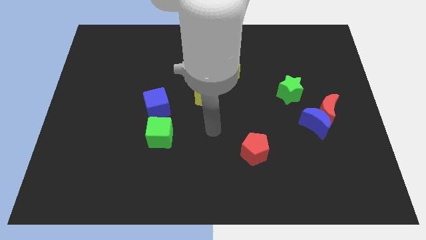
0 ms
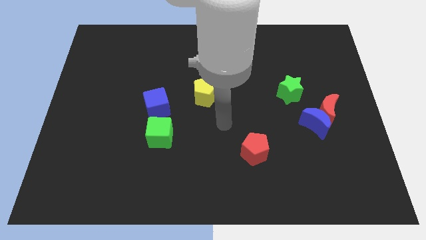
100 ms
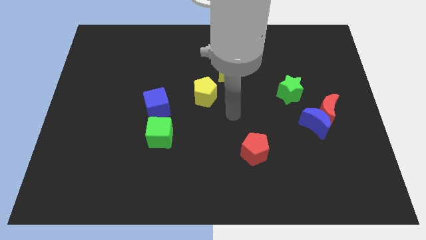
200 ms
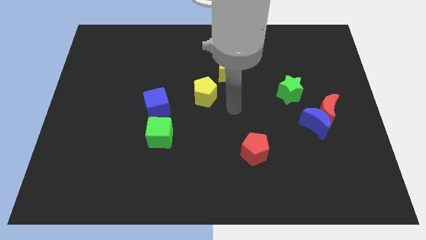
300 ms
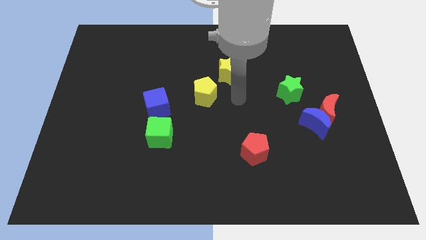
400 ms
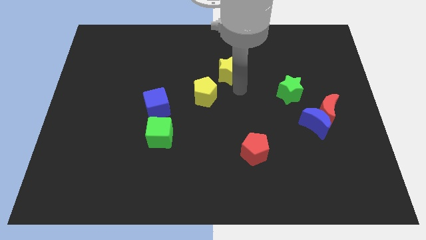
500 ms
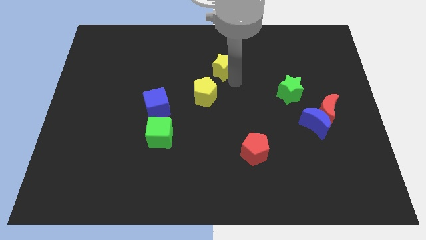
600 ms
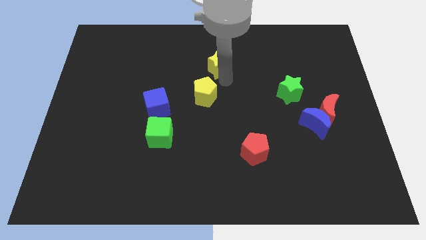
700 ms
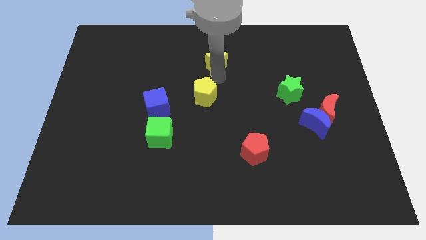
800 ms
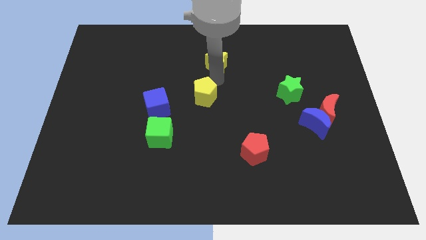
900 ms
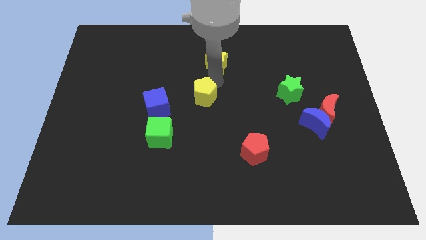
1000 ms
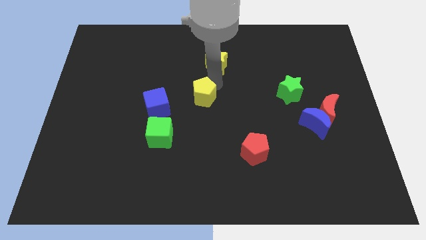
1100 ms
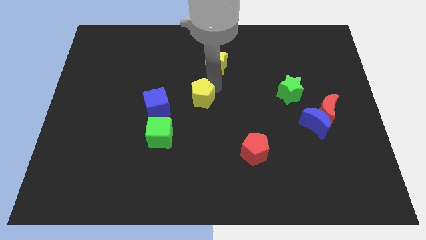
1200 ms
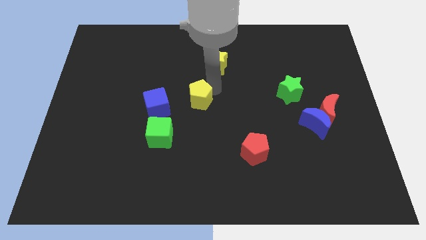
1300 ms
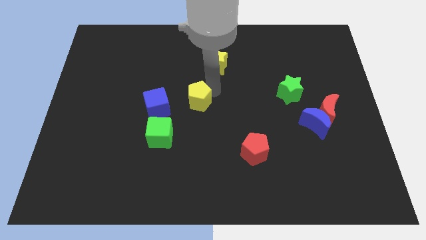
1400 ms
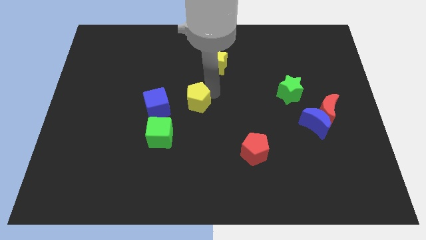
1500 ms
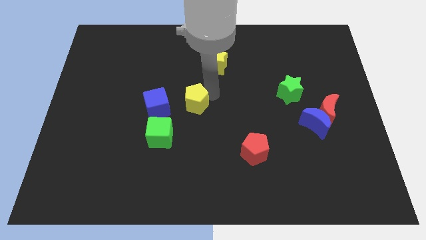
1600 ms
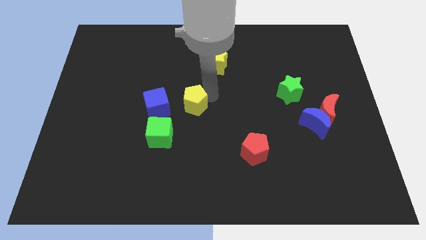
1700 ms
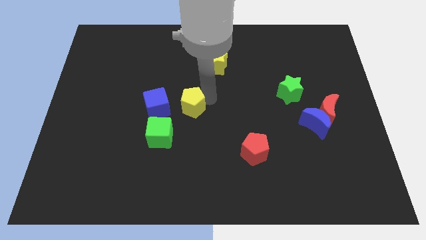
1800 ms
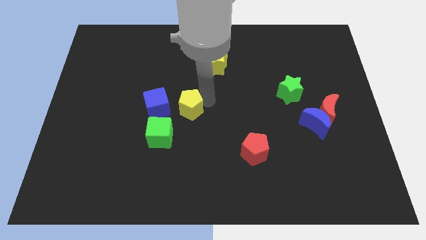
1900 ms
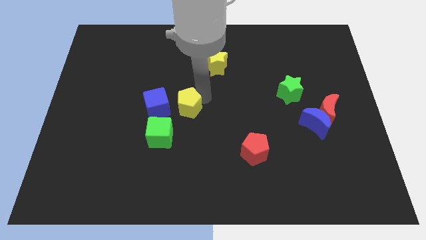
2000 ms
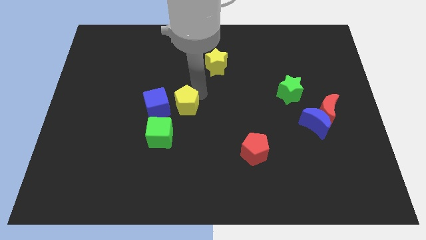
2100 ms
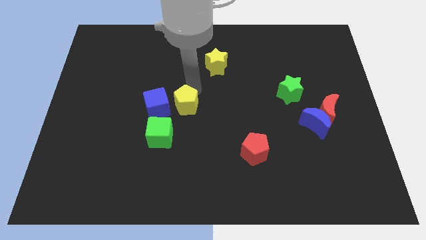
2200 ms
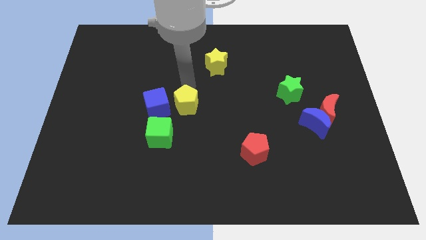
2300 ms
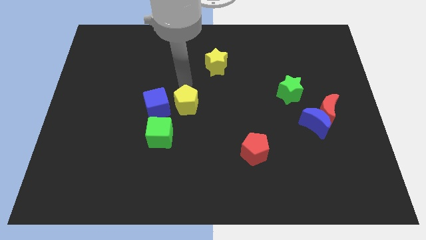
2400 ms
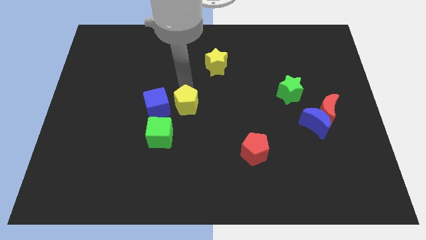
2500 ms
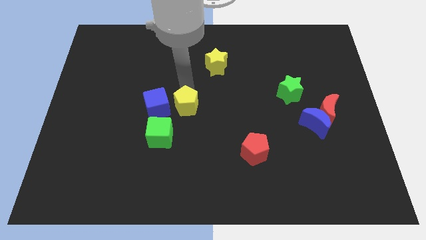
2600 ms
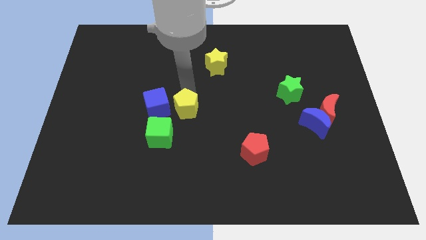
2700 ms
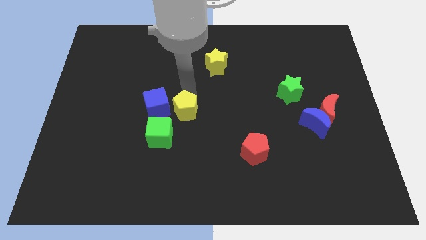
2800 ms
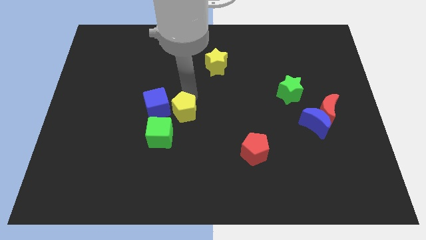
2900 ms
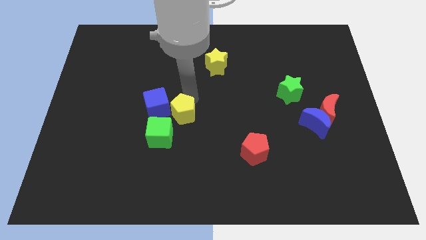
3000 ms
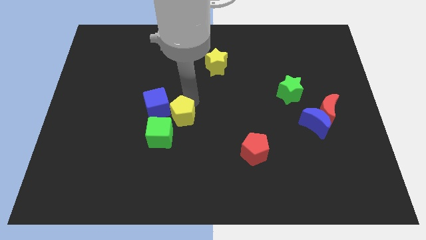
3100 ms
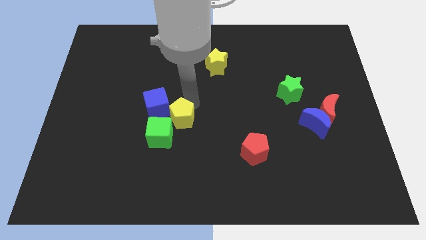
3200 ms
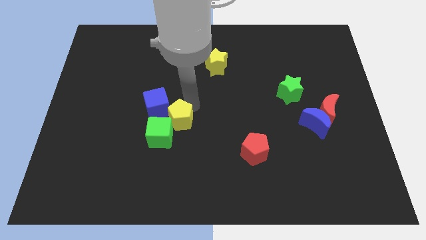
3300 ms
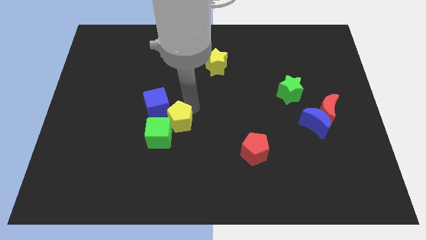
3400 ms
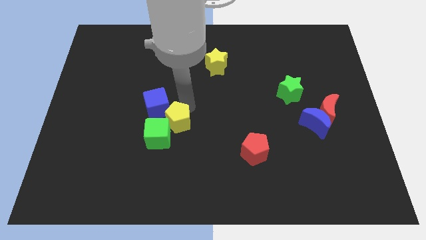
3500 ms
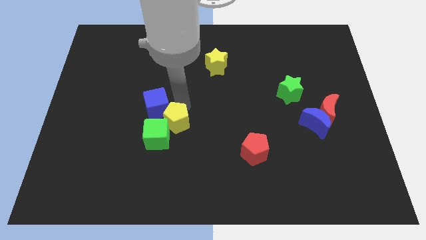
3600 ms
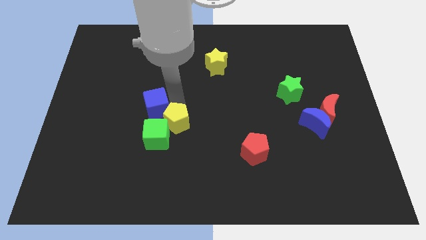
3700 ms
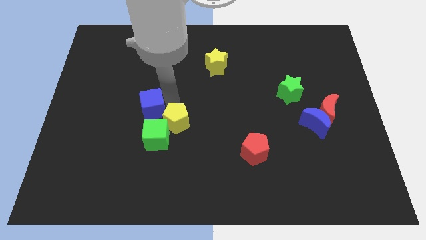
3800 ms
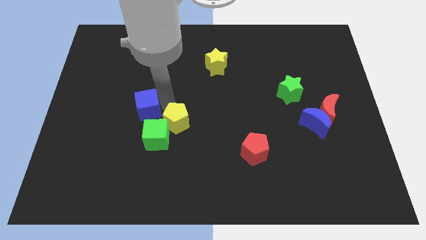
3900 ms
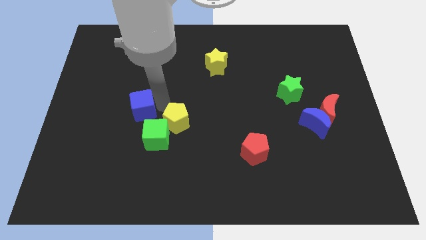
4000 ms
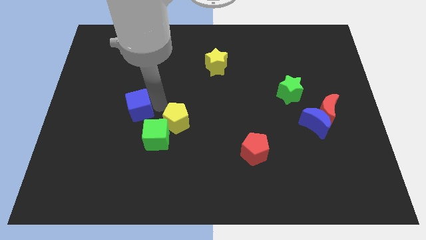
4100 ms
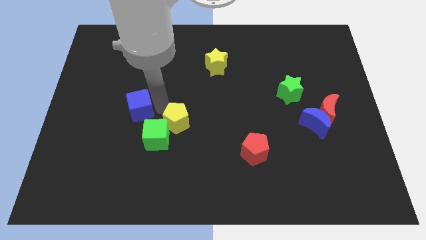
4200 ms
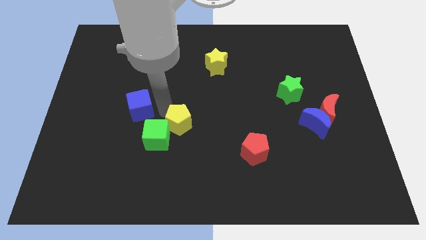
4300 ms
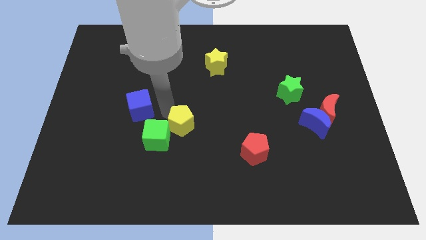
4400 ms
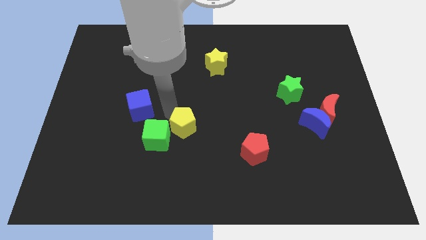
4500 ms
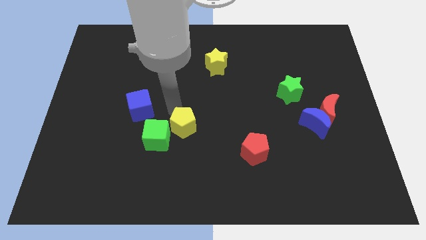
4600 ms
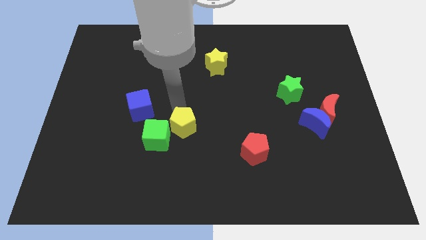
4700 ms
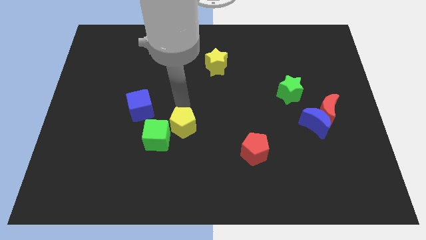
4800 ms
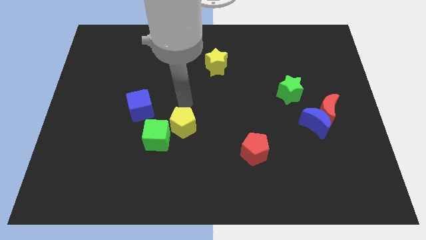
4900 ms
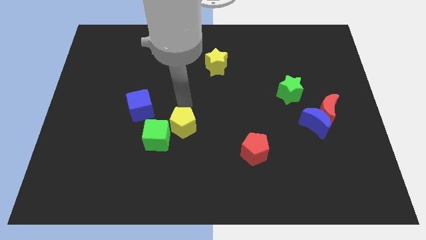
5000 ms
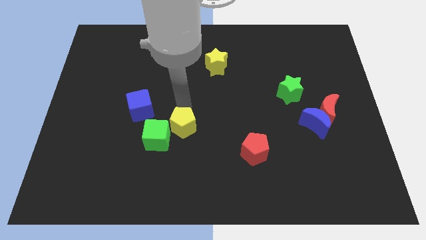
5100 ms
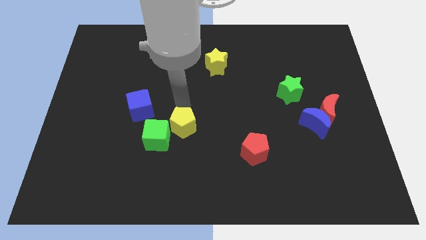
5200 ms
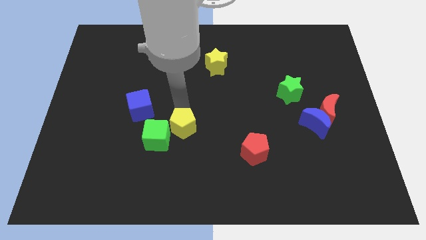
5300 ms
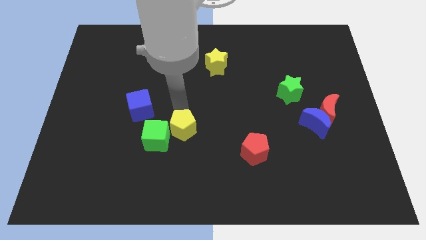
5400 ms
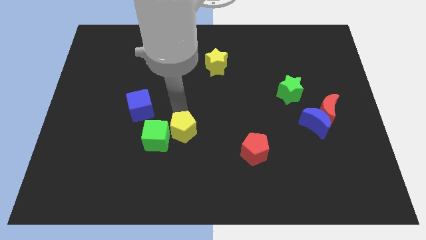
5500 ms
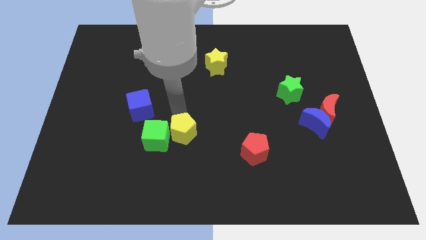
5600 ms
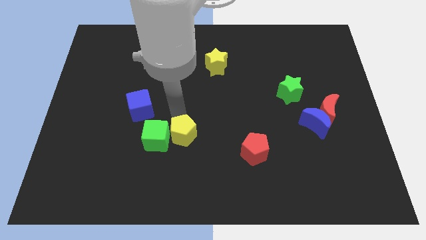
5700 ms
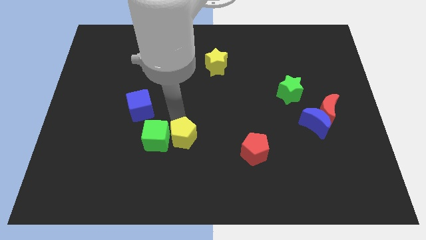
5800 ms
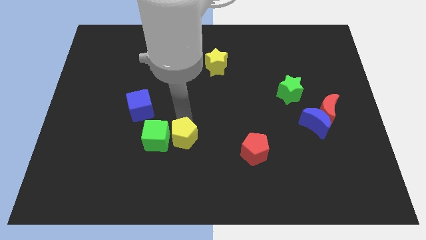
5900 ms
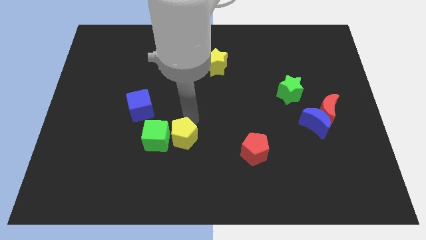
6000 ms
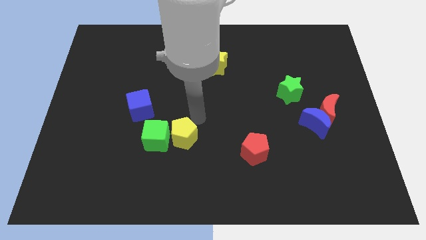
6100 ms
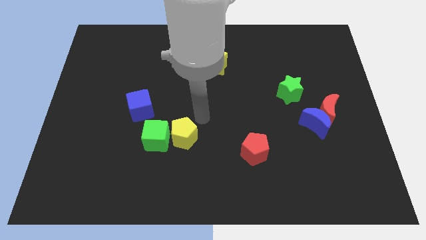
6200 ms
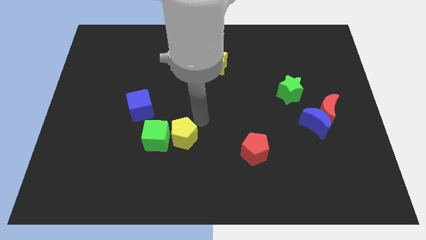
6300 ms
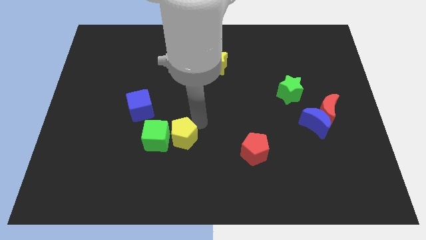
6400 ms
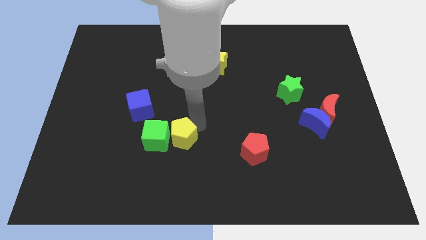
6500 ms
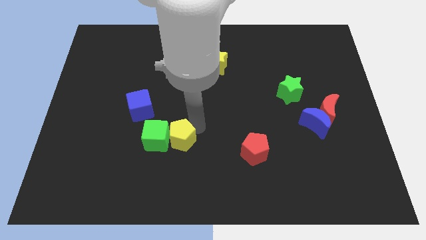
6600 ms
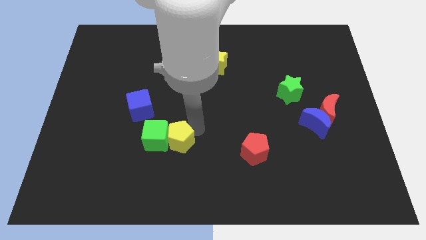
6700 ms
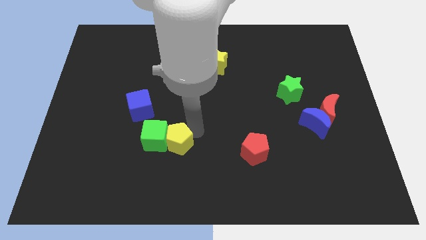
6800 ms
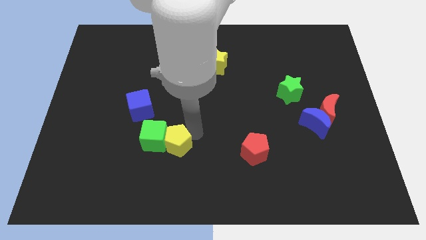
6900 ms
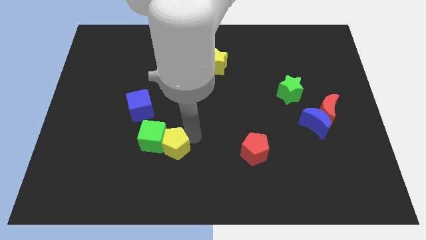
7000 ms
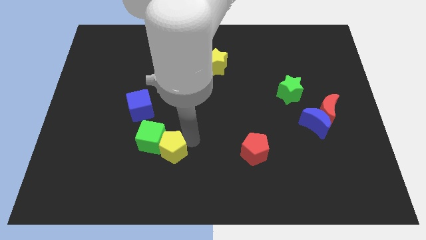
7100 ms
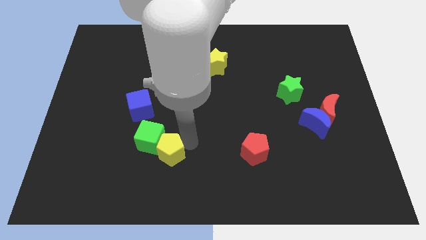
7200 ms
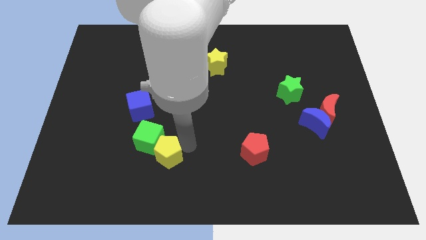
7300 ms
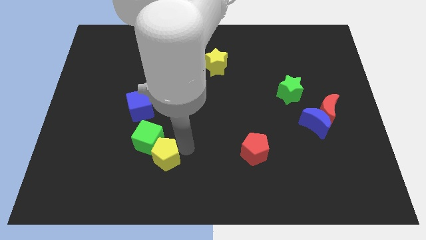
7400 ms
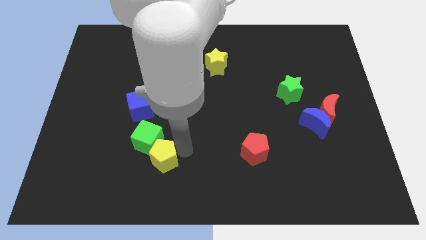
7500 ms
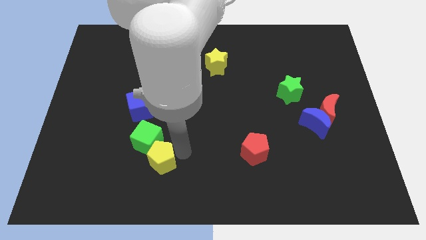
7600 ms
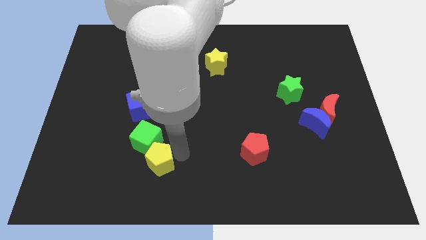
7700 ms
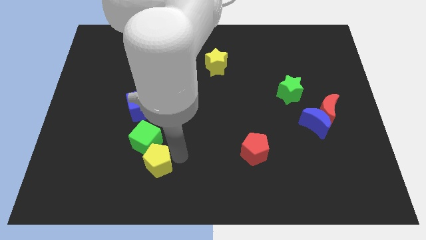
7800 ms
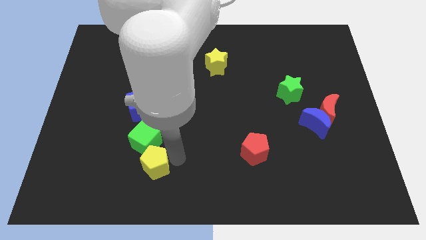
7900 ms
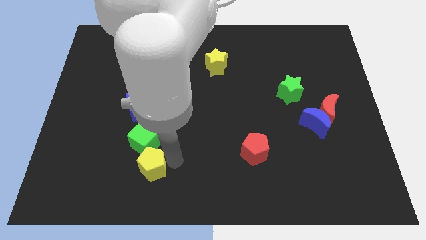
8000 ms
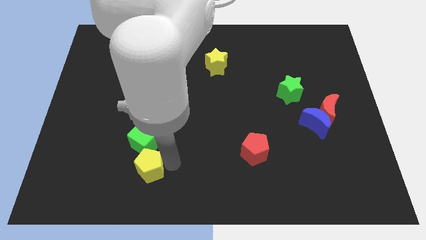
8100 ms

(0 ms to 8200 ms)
slide the yellow pentagon diagonally down and to the left
